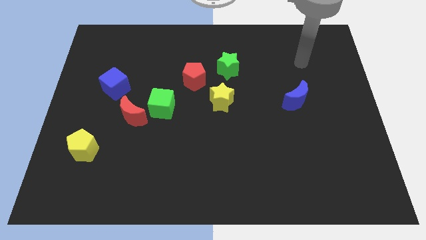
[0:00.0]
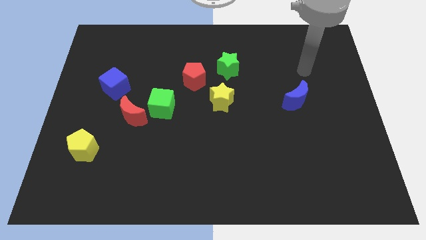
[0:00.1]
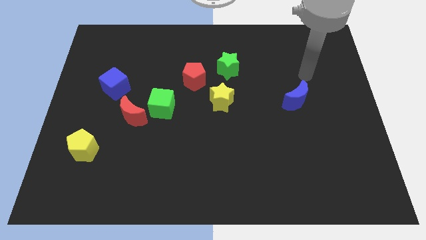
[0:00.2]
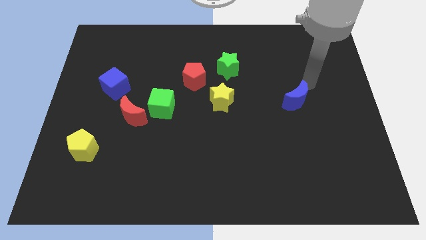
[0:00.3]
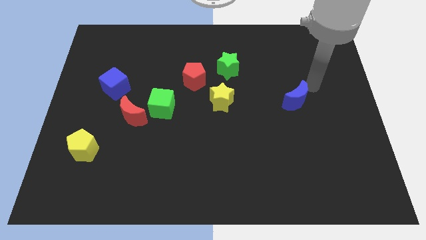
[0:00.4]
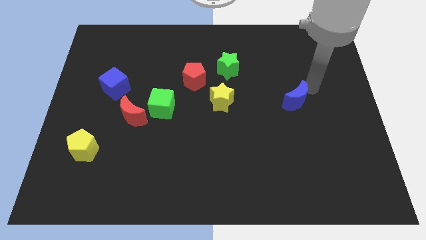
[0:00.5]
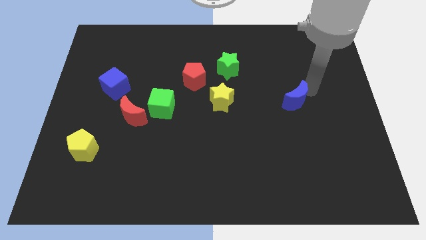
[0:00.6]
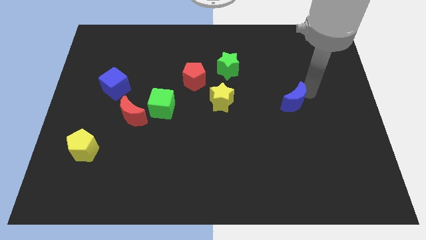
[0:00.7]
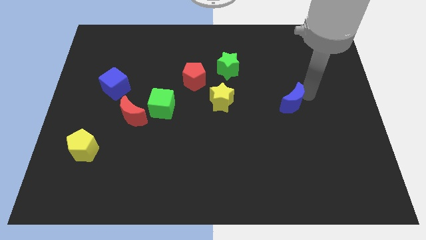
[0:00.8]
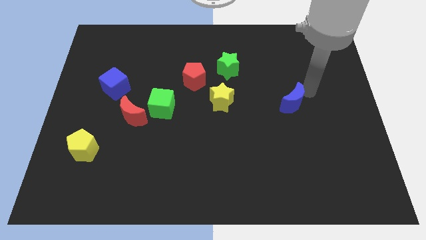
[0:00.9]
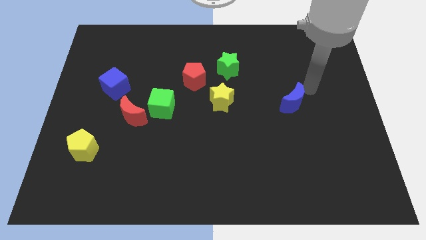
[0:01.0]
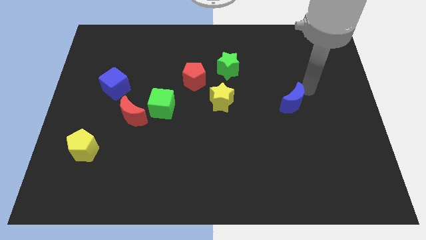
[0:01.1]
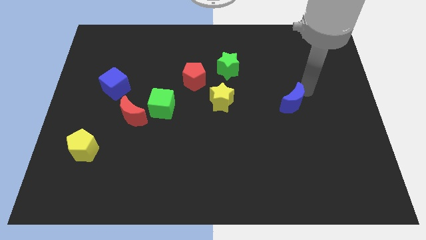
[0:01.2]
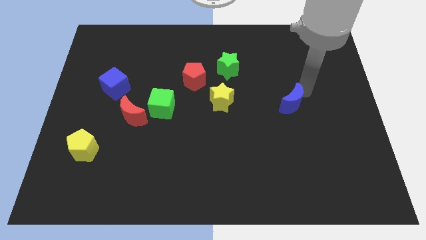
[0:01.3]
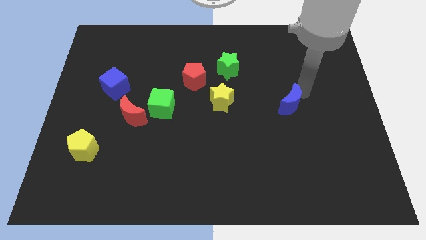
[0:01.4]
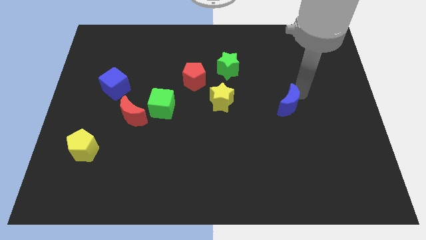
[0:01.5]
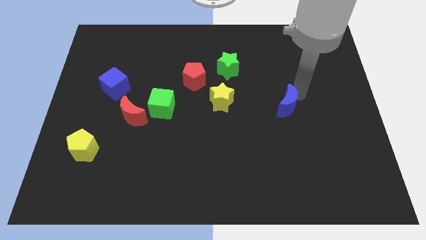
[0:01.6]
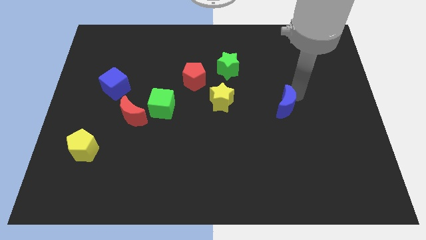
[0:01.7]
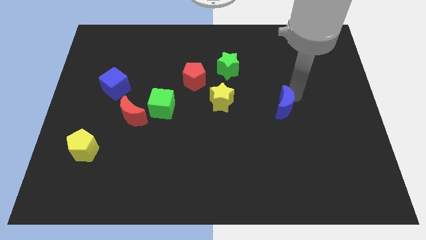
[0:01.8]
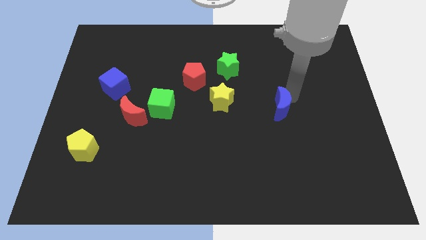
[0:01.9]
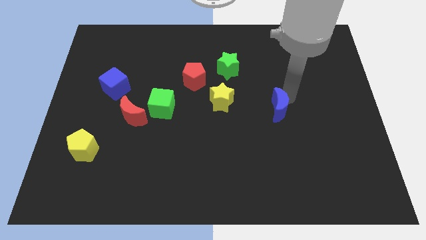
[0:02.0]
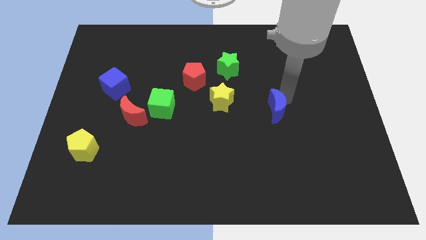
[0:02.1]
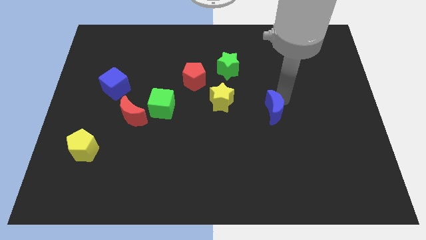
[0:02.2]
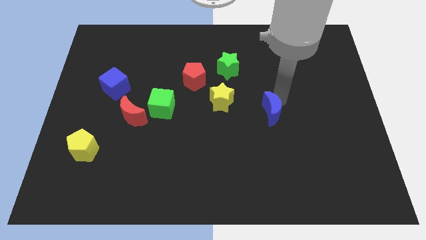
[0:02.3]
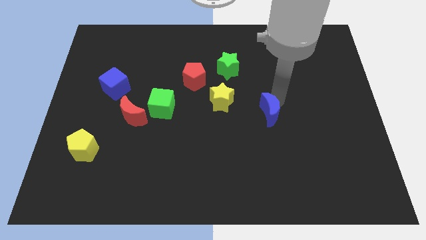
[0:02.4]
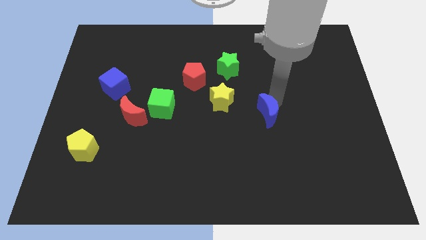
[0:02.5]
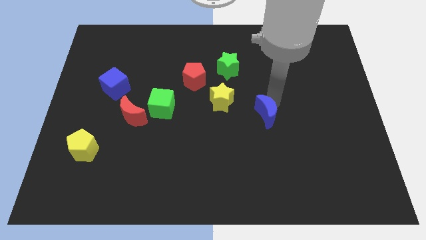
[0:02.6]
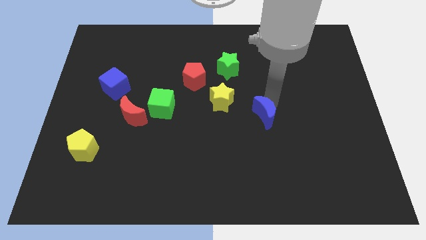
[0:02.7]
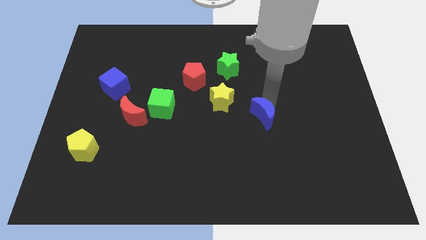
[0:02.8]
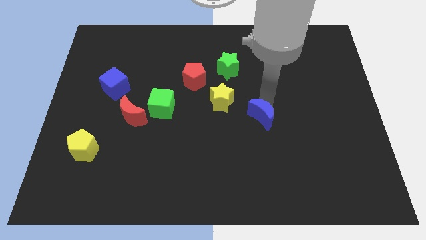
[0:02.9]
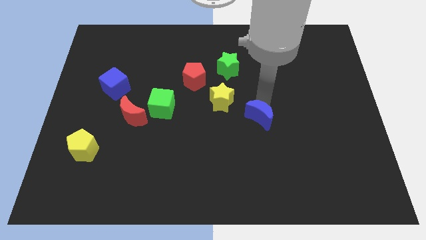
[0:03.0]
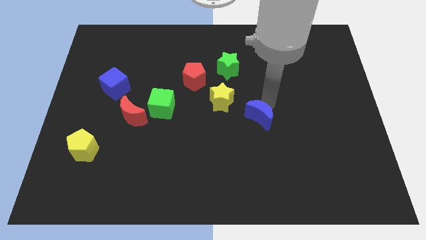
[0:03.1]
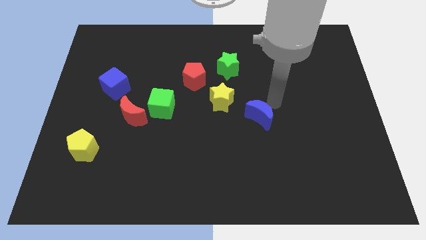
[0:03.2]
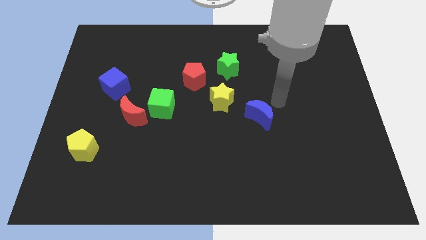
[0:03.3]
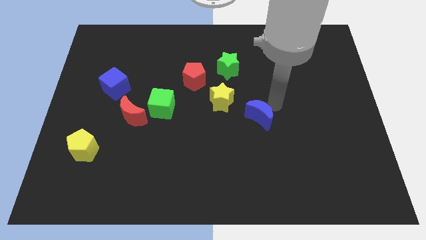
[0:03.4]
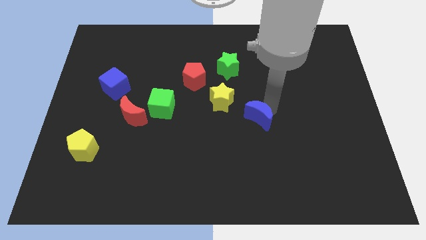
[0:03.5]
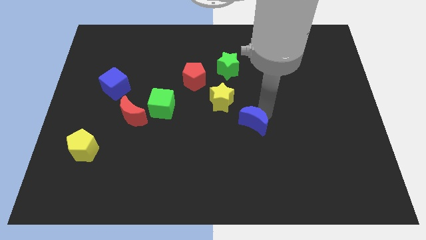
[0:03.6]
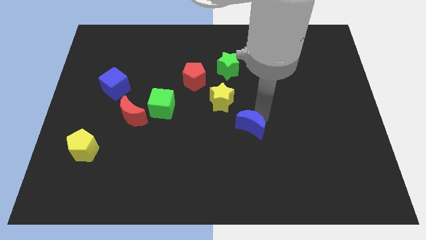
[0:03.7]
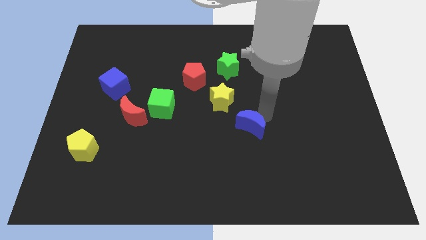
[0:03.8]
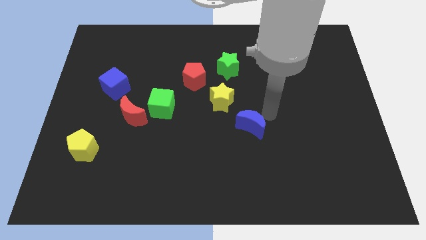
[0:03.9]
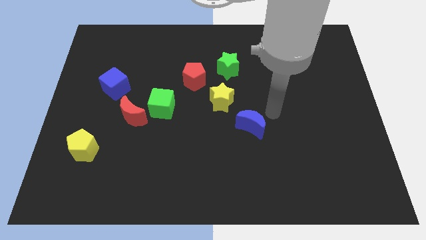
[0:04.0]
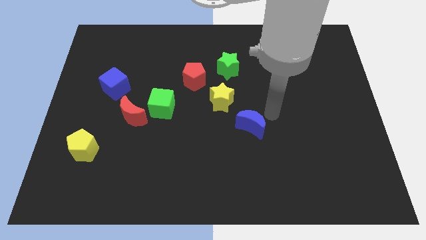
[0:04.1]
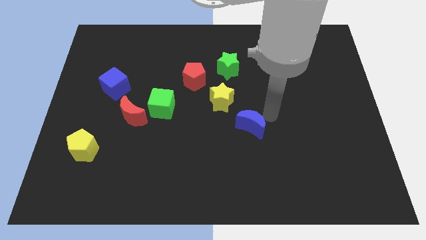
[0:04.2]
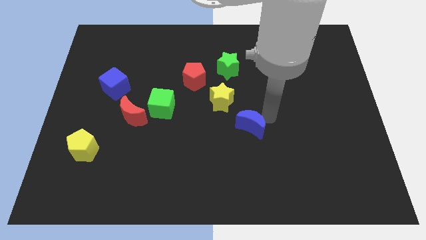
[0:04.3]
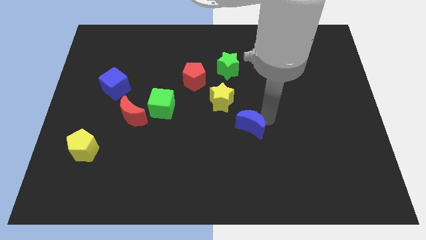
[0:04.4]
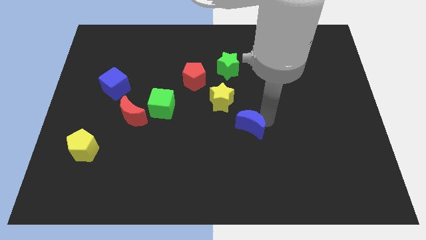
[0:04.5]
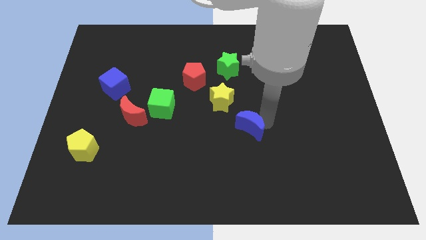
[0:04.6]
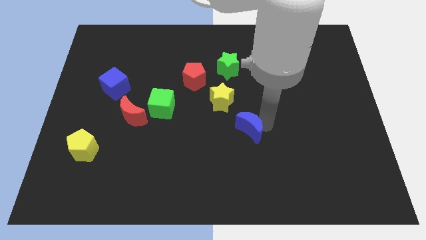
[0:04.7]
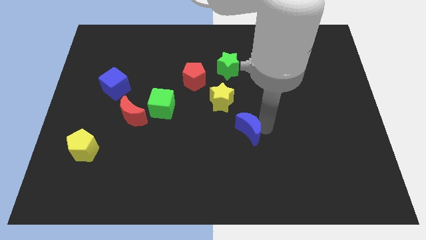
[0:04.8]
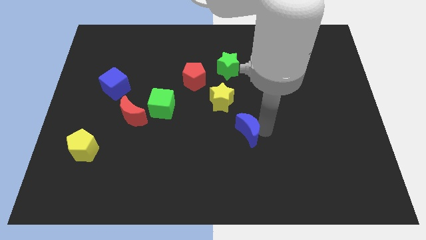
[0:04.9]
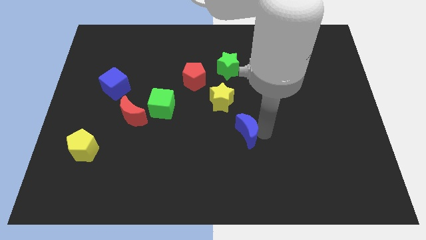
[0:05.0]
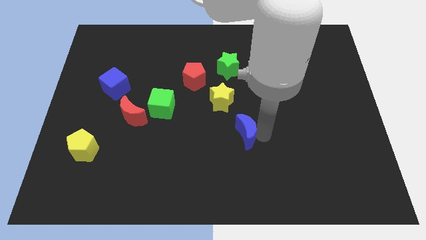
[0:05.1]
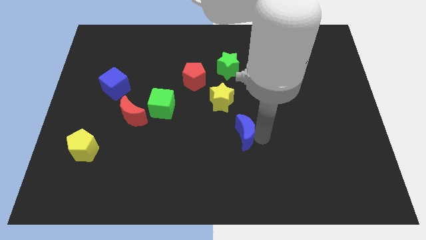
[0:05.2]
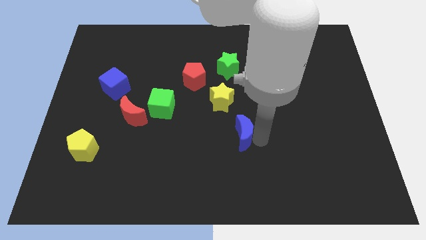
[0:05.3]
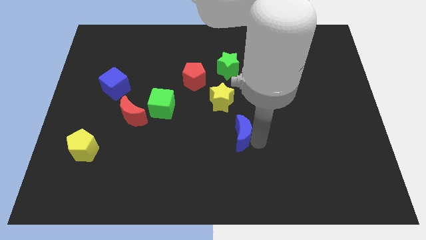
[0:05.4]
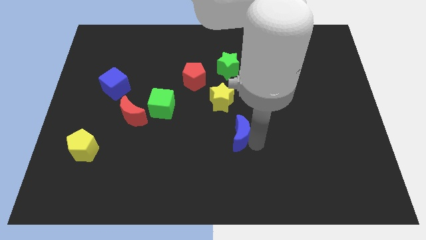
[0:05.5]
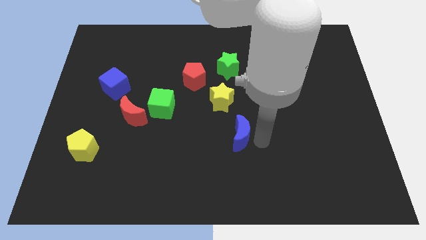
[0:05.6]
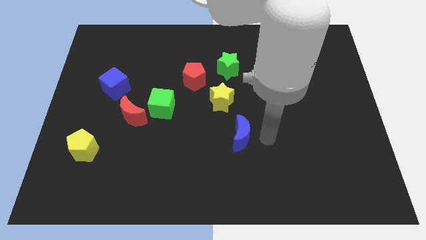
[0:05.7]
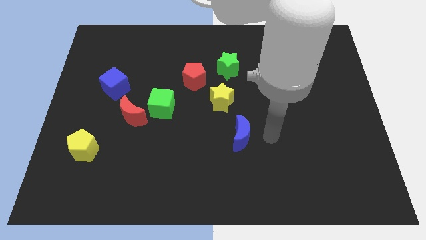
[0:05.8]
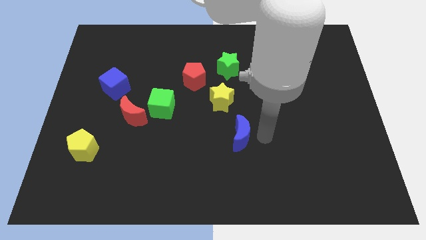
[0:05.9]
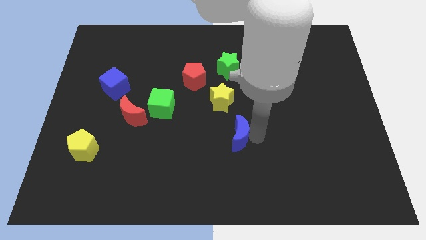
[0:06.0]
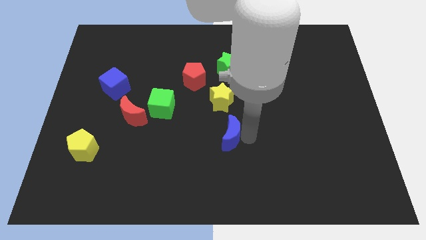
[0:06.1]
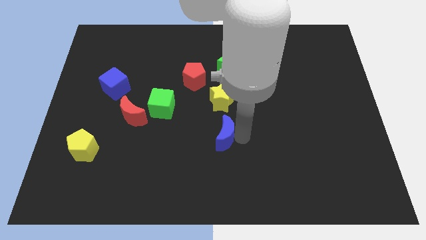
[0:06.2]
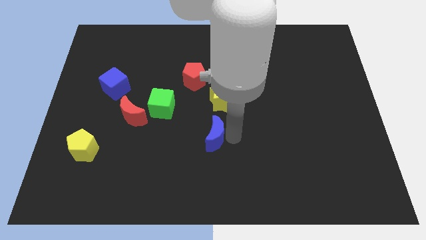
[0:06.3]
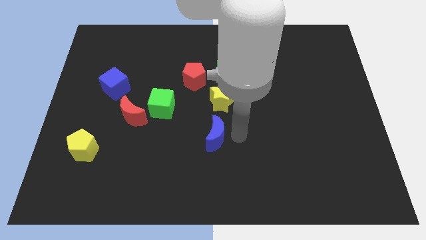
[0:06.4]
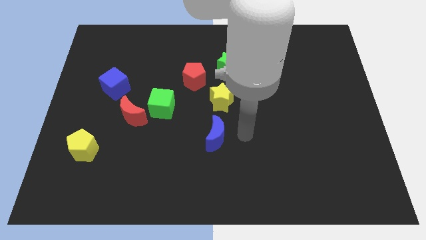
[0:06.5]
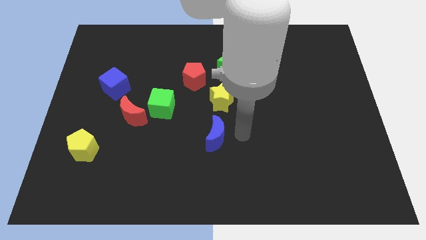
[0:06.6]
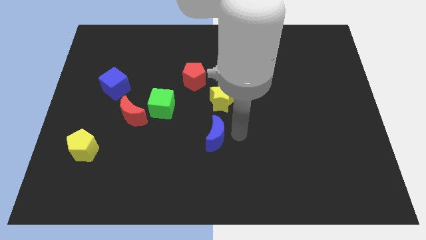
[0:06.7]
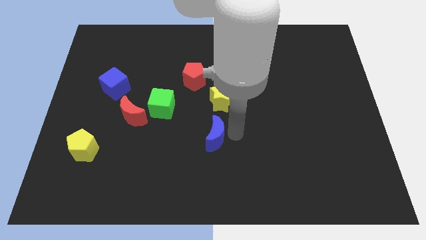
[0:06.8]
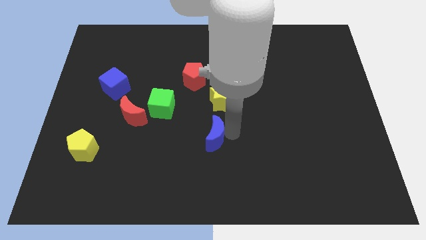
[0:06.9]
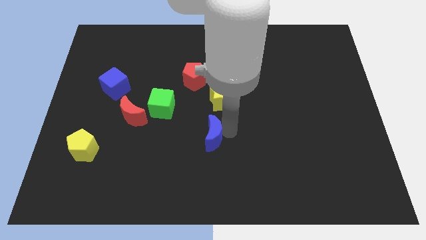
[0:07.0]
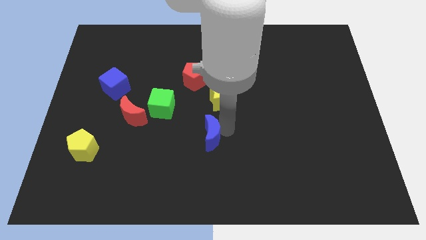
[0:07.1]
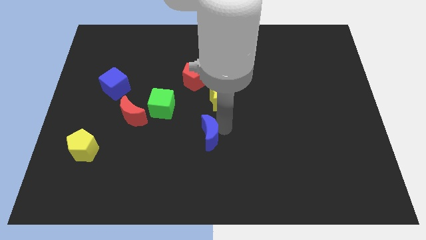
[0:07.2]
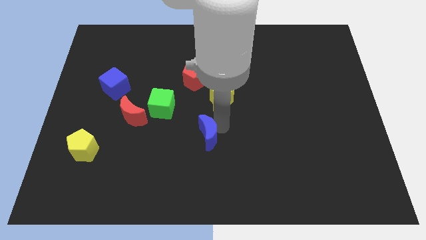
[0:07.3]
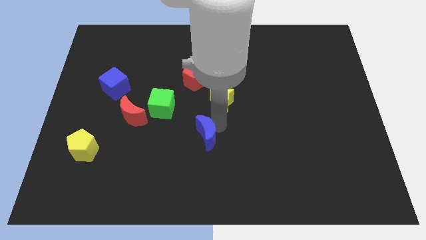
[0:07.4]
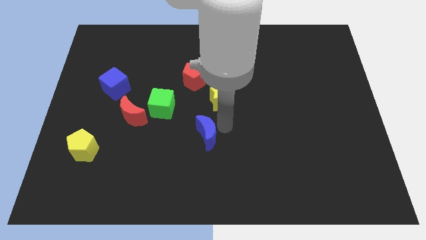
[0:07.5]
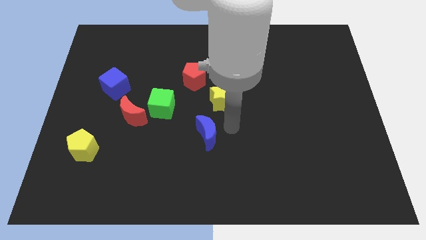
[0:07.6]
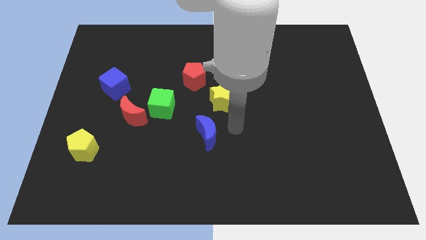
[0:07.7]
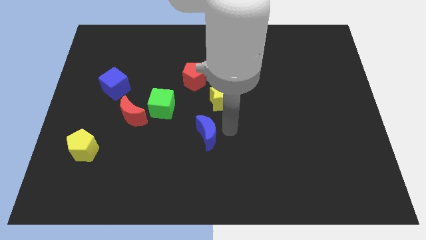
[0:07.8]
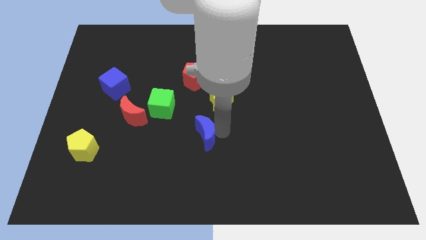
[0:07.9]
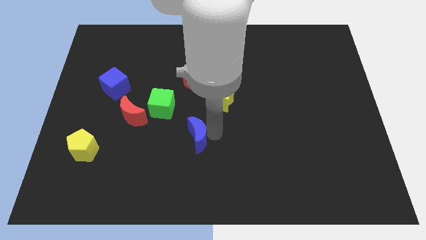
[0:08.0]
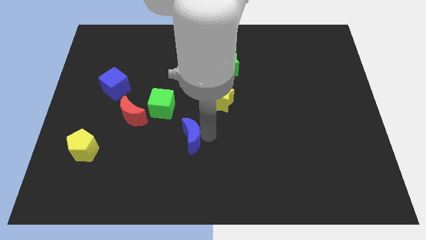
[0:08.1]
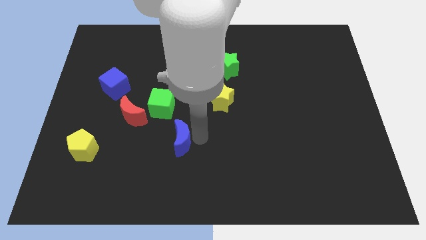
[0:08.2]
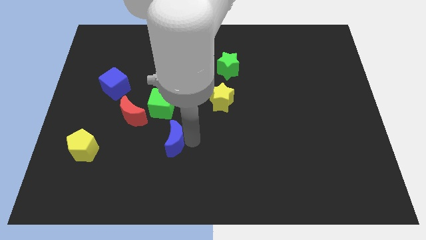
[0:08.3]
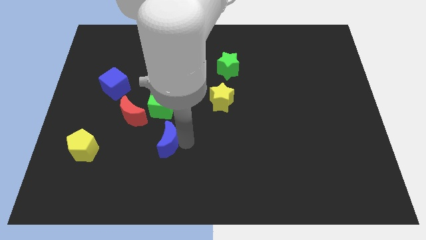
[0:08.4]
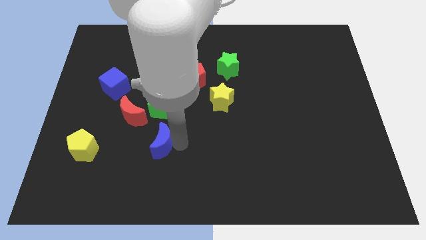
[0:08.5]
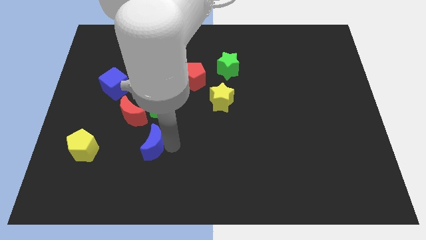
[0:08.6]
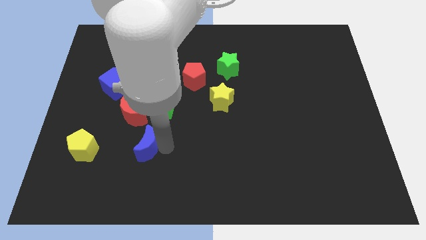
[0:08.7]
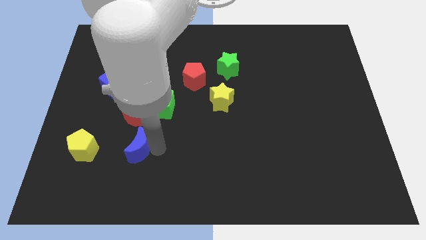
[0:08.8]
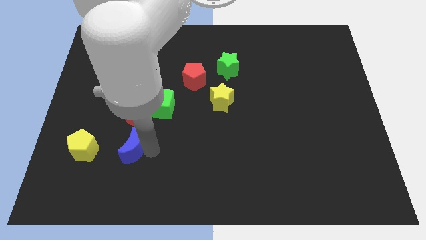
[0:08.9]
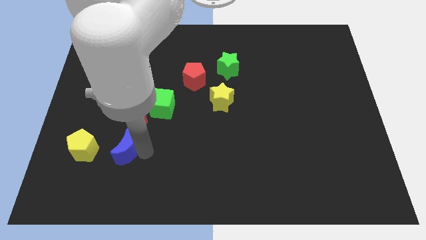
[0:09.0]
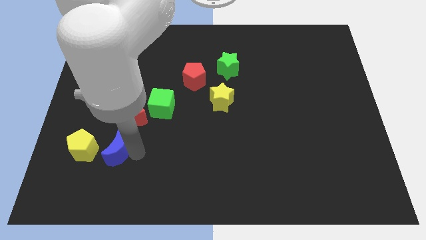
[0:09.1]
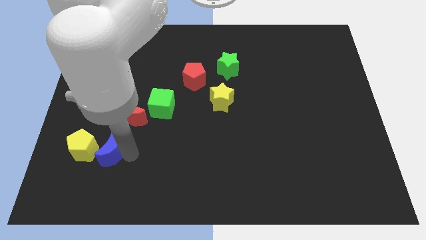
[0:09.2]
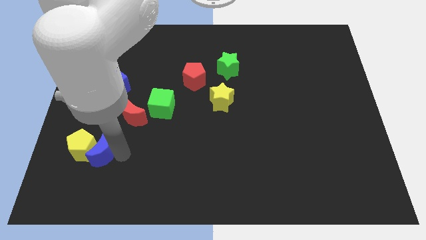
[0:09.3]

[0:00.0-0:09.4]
put the blue moon to the yellow pentagon
